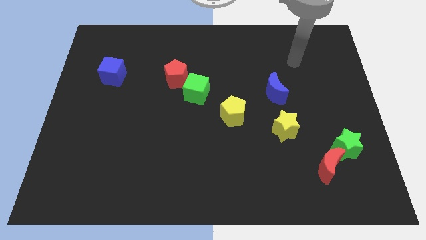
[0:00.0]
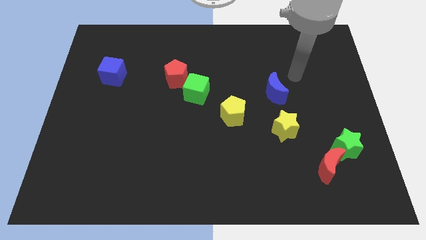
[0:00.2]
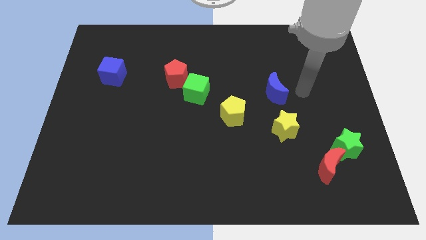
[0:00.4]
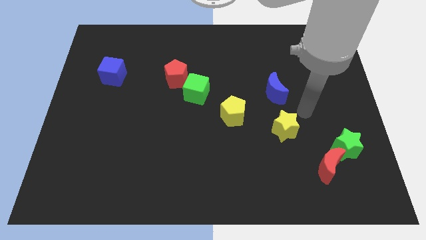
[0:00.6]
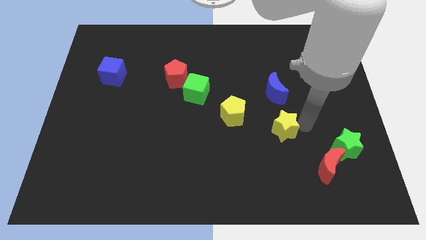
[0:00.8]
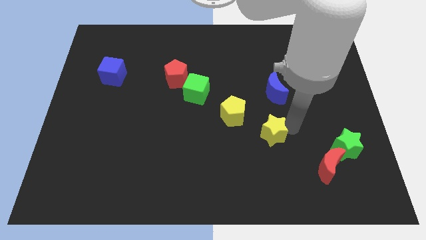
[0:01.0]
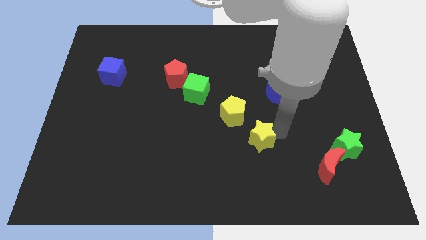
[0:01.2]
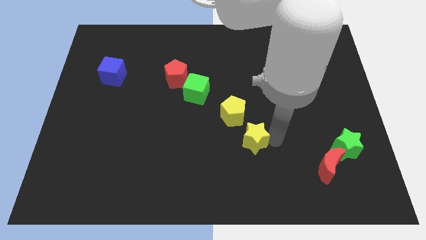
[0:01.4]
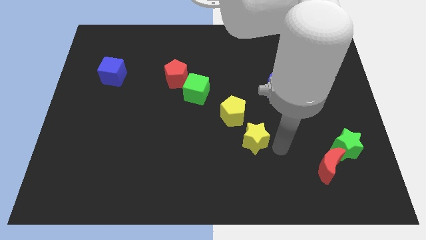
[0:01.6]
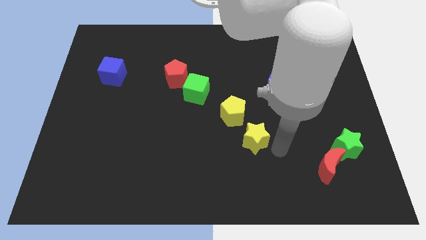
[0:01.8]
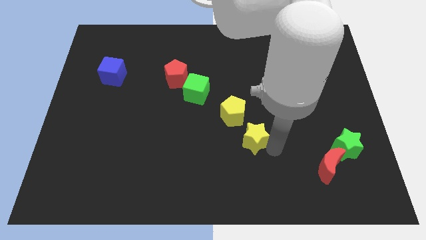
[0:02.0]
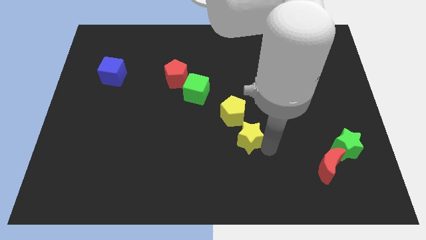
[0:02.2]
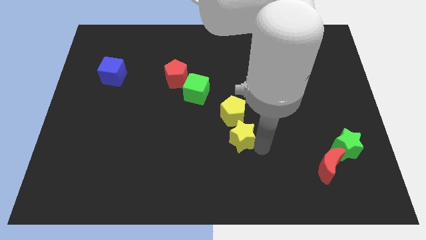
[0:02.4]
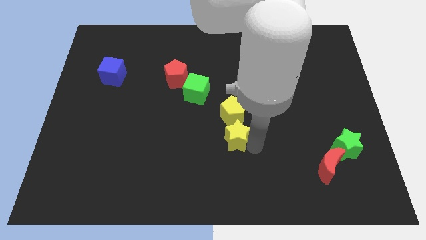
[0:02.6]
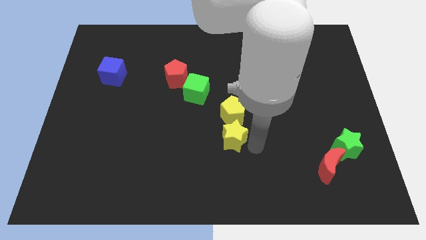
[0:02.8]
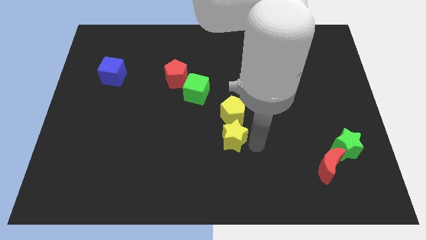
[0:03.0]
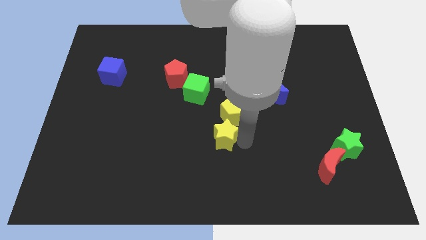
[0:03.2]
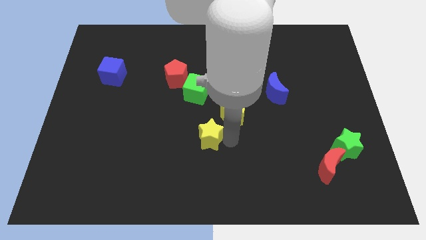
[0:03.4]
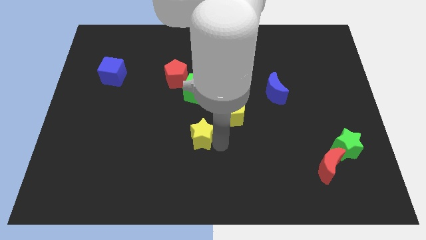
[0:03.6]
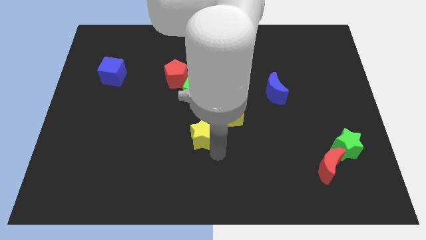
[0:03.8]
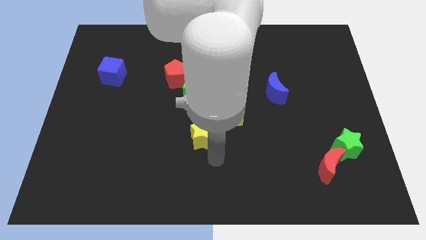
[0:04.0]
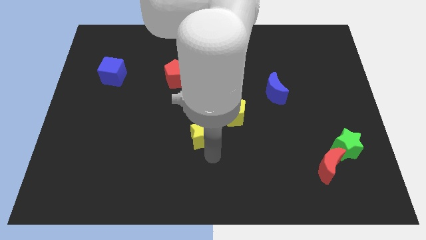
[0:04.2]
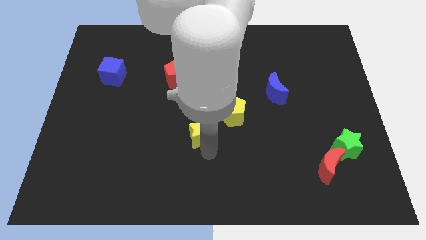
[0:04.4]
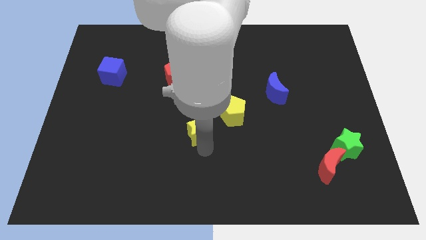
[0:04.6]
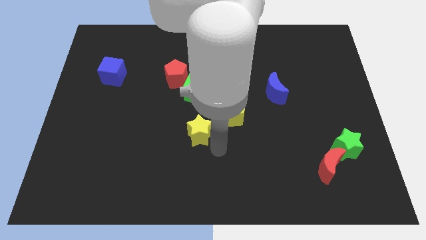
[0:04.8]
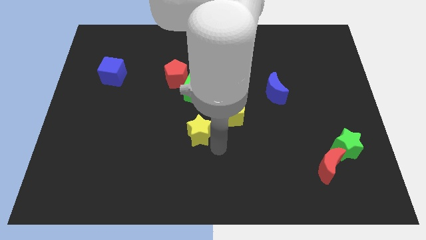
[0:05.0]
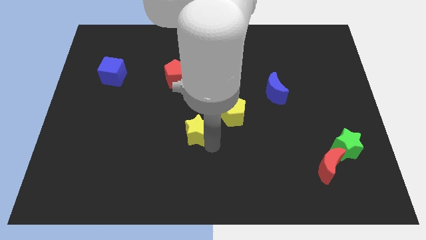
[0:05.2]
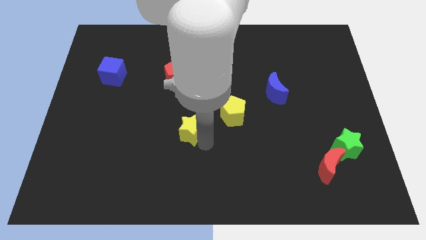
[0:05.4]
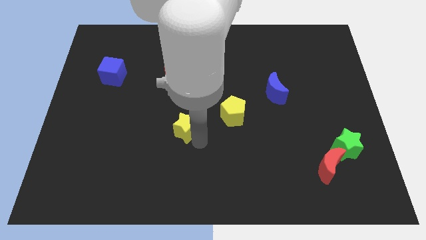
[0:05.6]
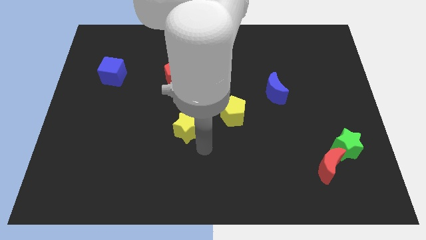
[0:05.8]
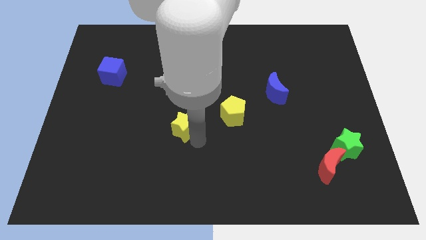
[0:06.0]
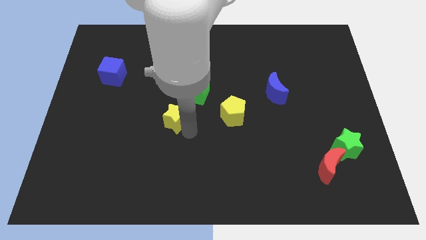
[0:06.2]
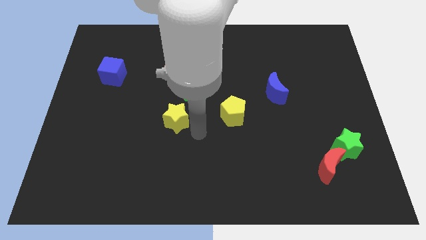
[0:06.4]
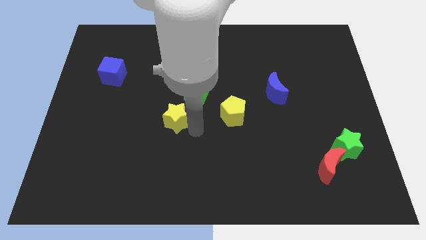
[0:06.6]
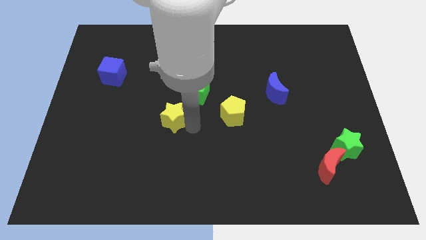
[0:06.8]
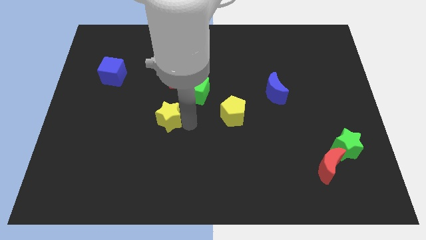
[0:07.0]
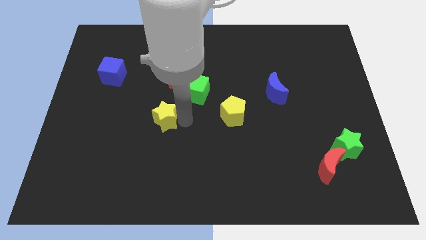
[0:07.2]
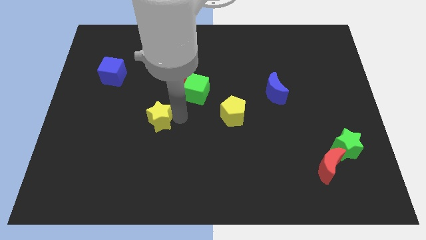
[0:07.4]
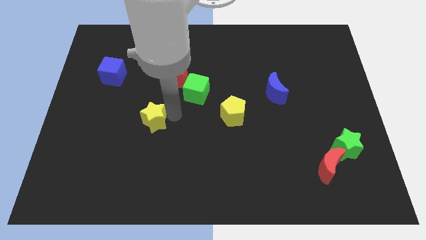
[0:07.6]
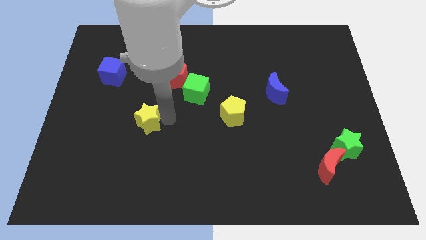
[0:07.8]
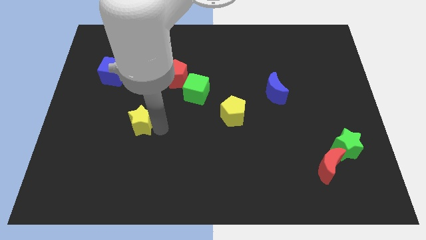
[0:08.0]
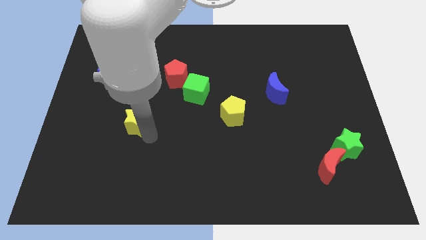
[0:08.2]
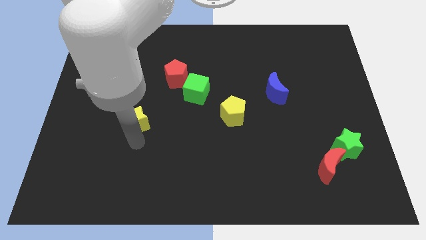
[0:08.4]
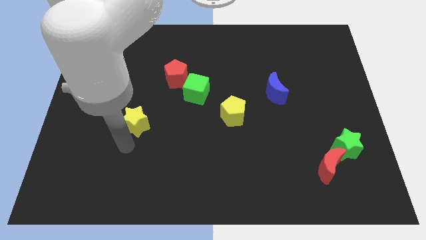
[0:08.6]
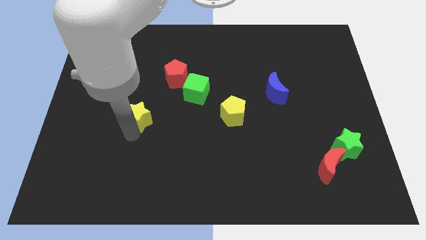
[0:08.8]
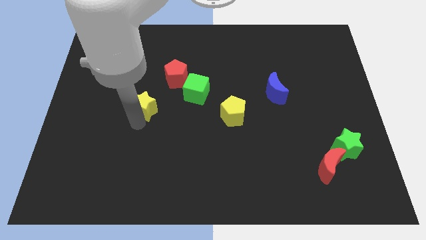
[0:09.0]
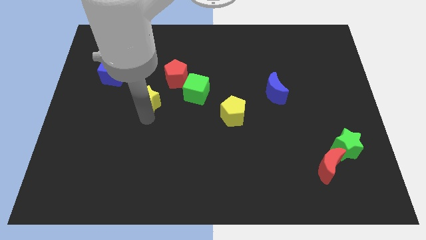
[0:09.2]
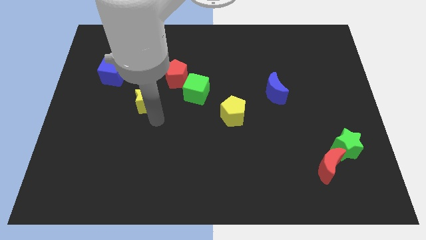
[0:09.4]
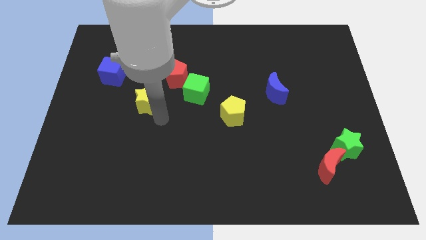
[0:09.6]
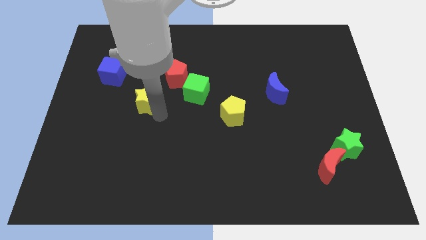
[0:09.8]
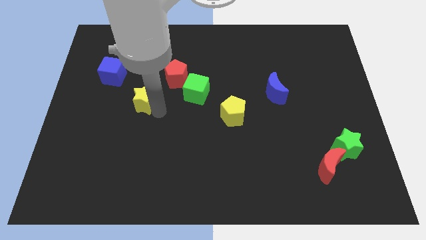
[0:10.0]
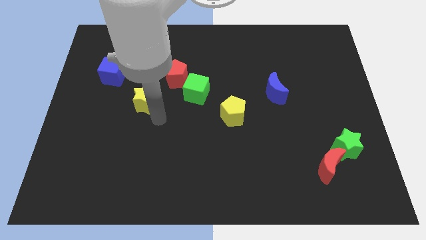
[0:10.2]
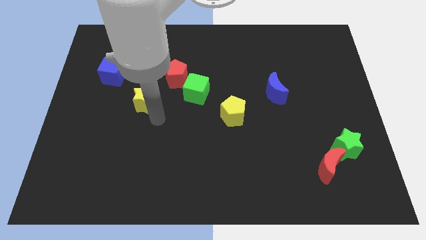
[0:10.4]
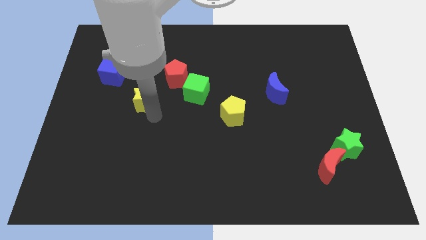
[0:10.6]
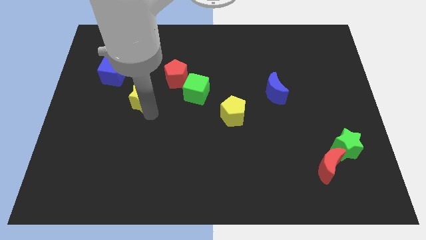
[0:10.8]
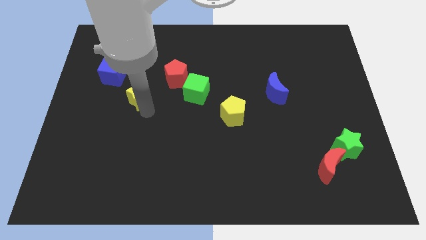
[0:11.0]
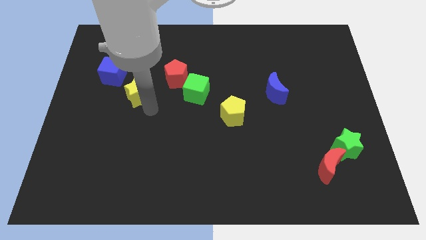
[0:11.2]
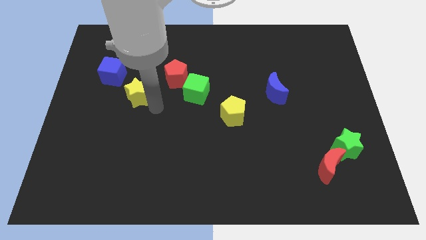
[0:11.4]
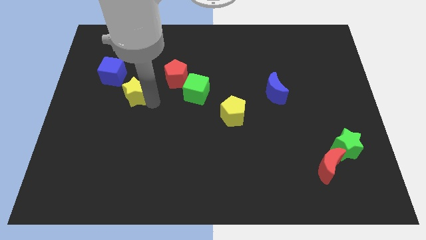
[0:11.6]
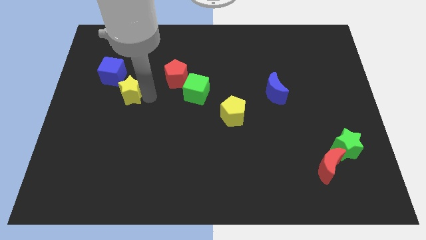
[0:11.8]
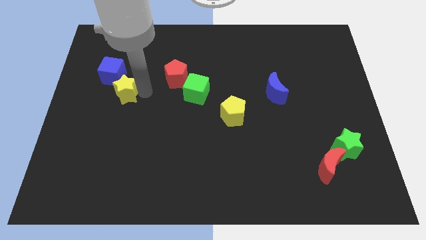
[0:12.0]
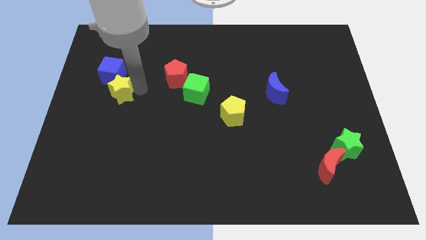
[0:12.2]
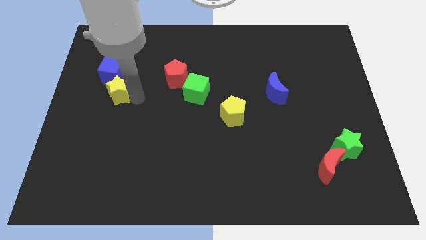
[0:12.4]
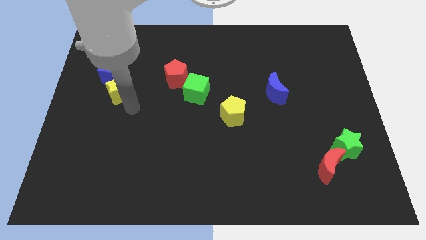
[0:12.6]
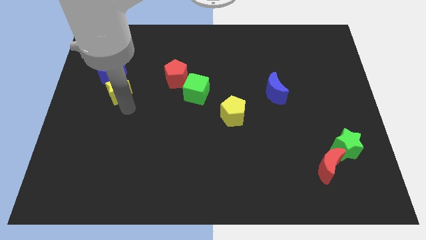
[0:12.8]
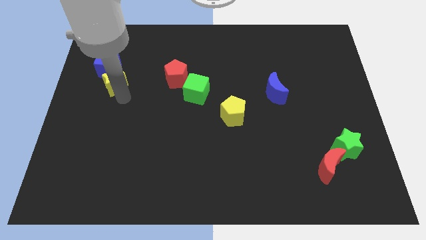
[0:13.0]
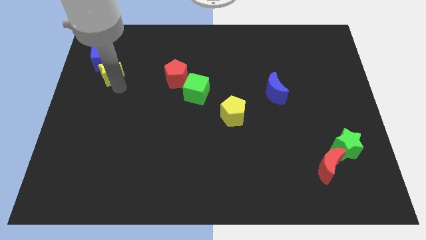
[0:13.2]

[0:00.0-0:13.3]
put the yellow star to the blue cube
